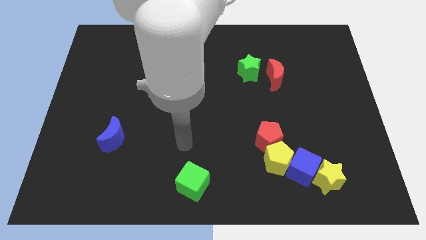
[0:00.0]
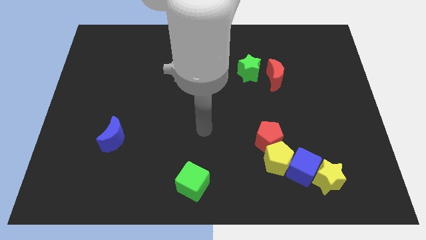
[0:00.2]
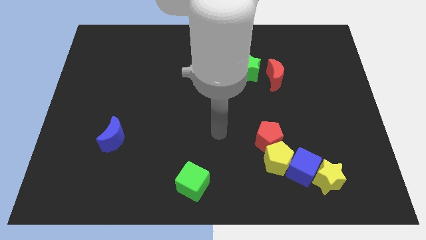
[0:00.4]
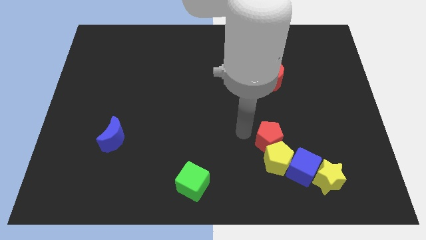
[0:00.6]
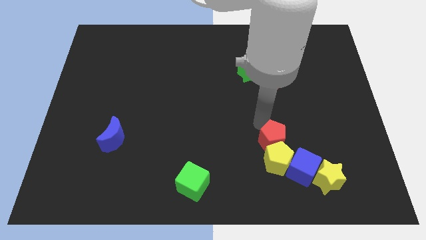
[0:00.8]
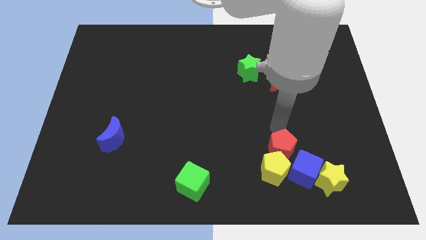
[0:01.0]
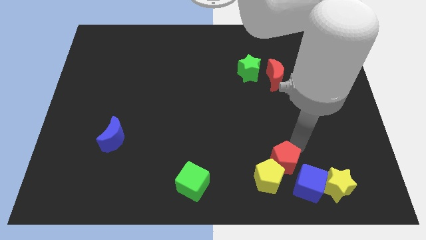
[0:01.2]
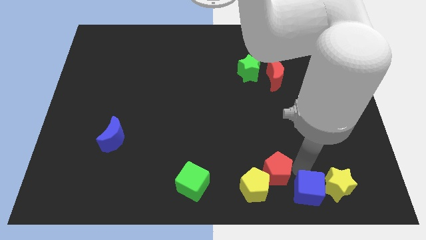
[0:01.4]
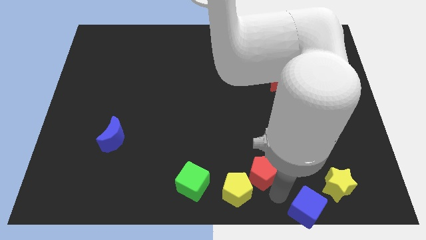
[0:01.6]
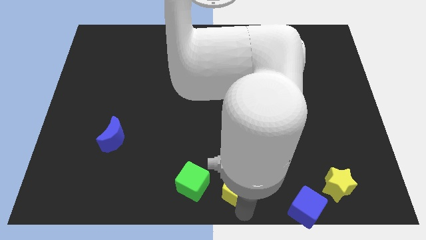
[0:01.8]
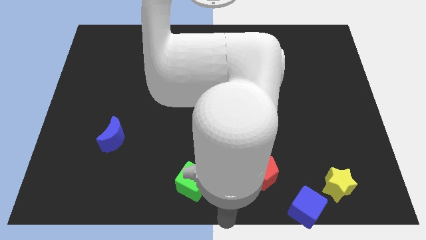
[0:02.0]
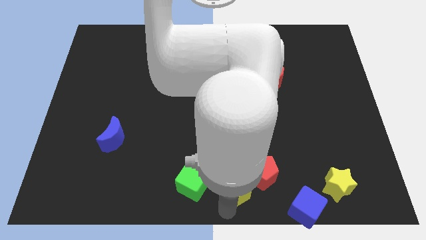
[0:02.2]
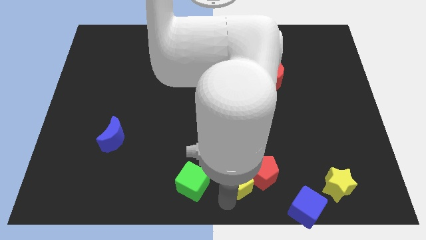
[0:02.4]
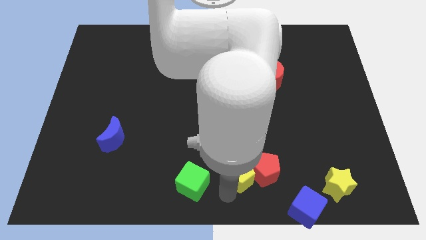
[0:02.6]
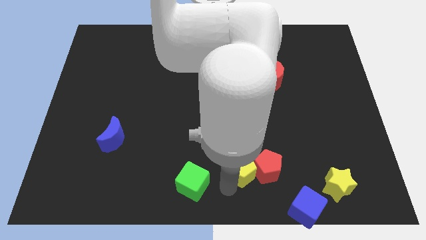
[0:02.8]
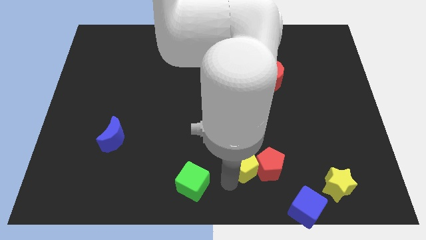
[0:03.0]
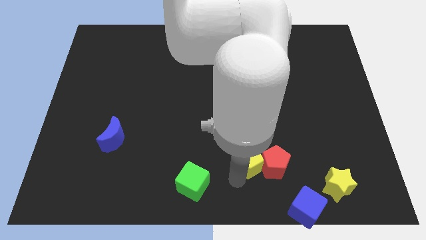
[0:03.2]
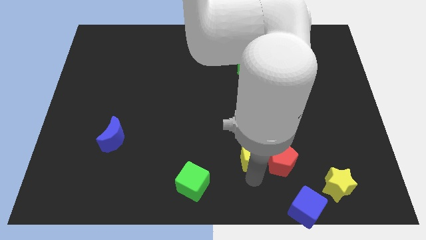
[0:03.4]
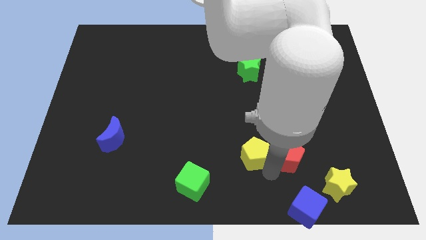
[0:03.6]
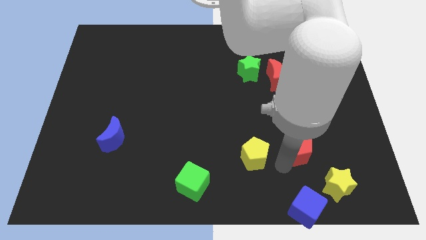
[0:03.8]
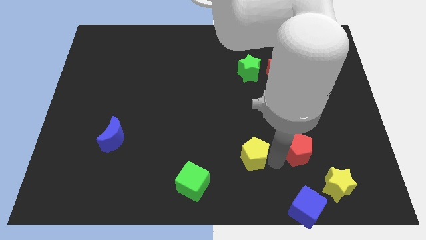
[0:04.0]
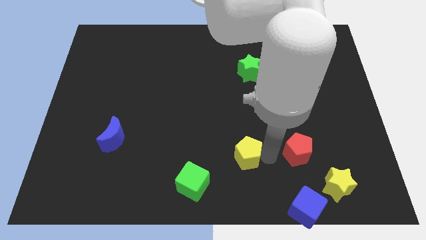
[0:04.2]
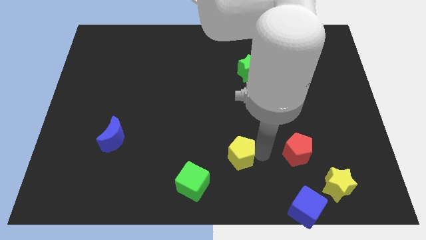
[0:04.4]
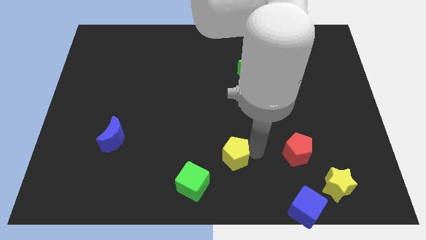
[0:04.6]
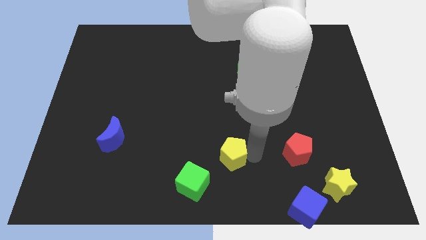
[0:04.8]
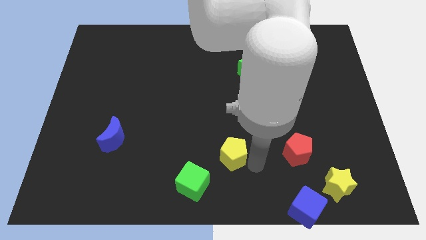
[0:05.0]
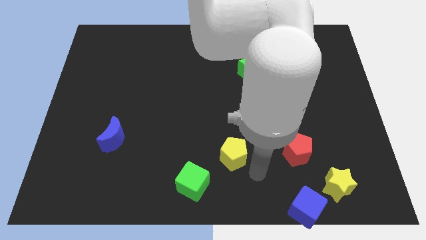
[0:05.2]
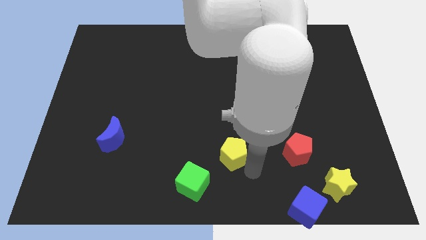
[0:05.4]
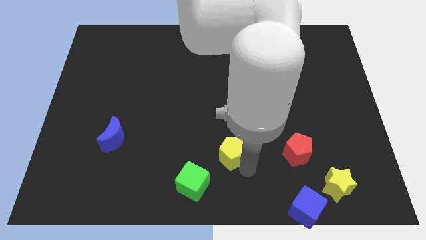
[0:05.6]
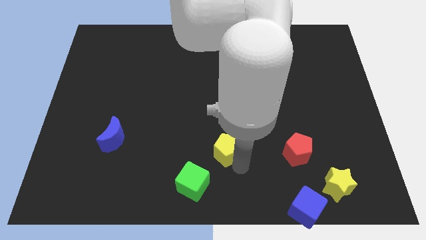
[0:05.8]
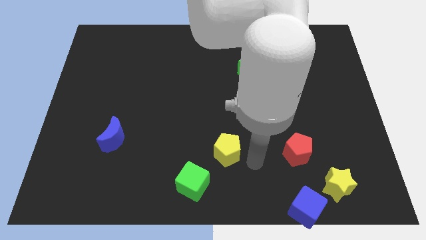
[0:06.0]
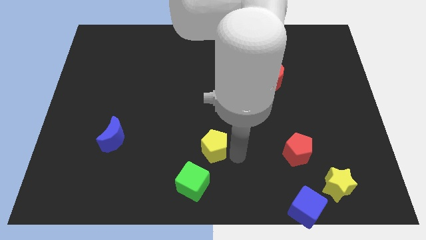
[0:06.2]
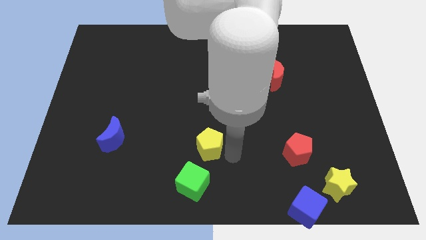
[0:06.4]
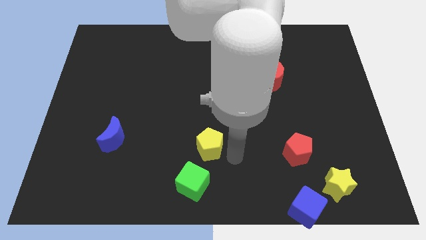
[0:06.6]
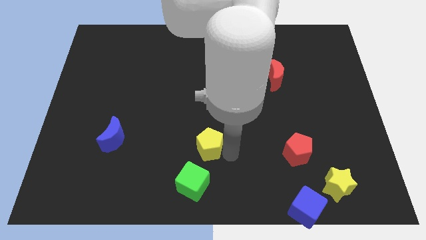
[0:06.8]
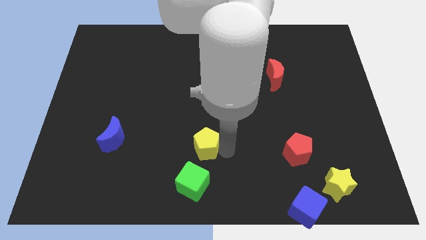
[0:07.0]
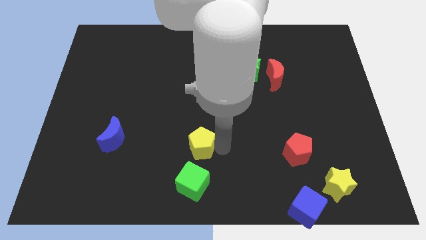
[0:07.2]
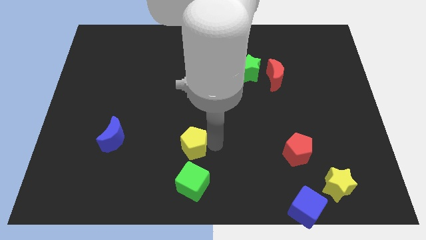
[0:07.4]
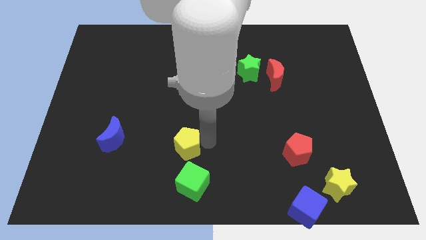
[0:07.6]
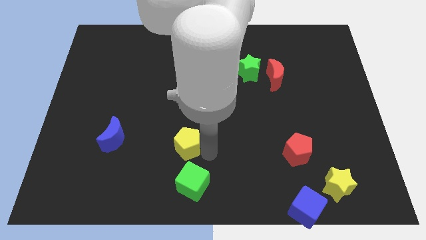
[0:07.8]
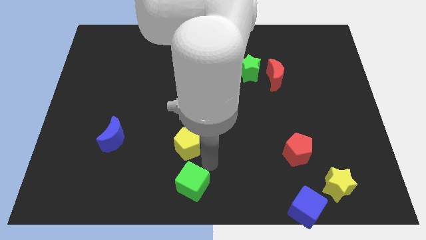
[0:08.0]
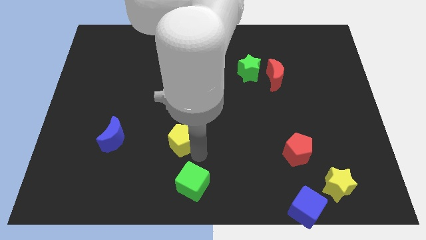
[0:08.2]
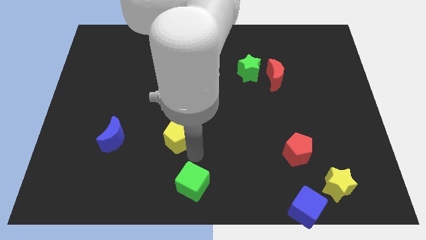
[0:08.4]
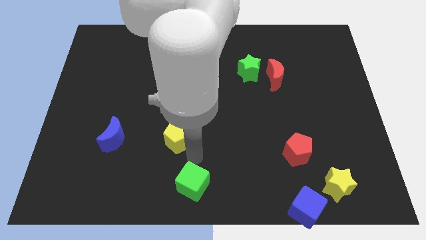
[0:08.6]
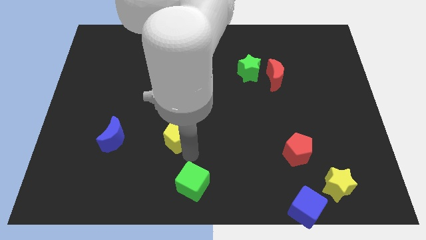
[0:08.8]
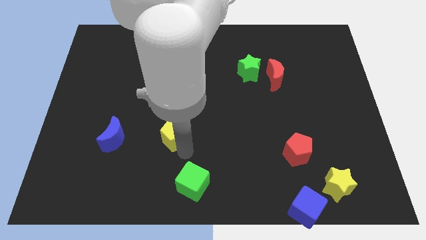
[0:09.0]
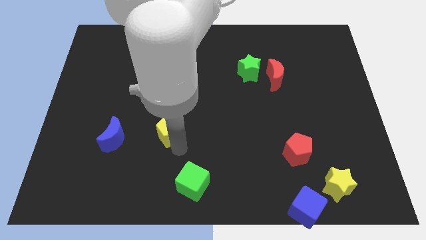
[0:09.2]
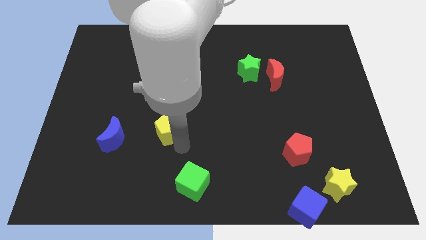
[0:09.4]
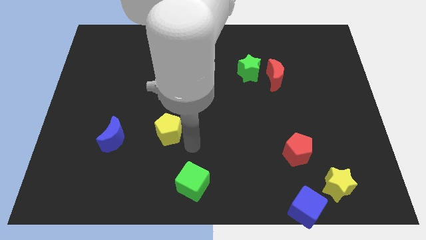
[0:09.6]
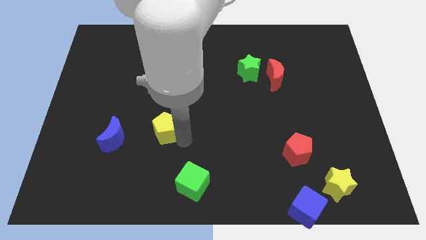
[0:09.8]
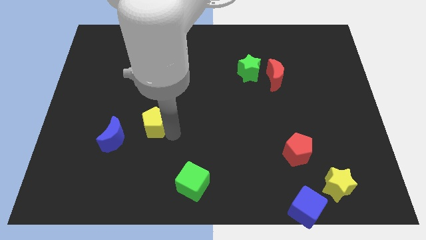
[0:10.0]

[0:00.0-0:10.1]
put the yellow pentagon to the top right of the blue moon

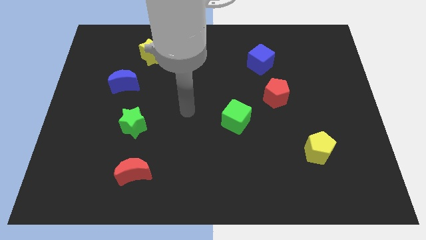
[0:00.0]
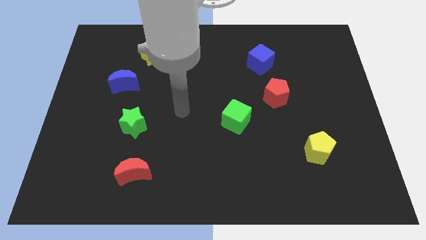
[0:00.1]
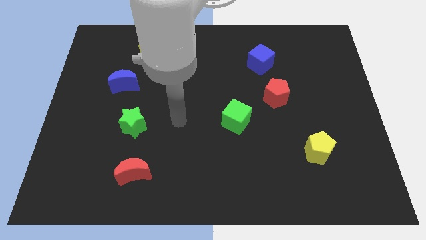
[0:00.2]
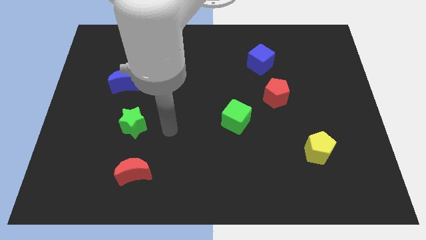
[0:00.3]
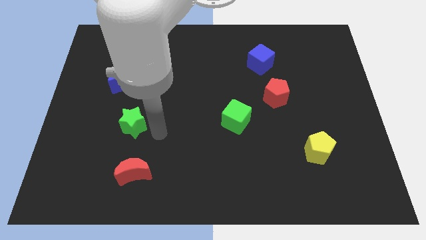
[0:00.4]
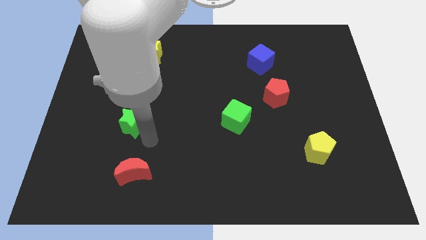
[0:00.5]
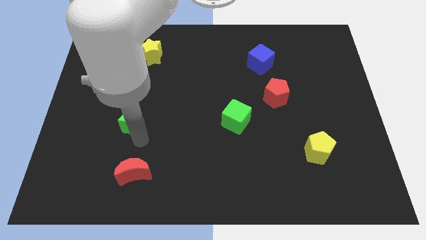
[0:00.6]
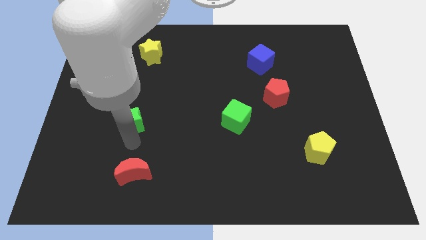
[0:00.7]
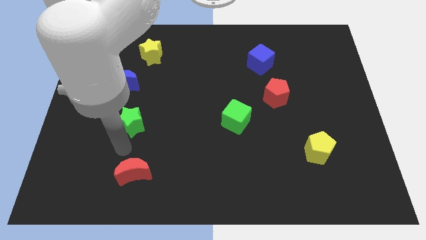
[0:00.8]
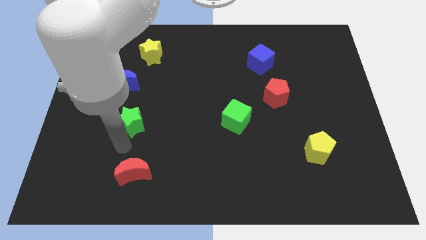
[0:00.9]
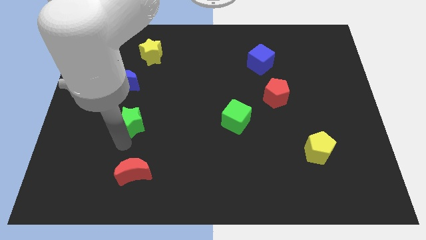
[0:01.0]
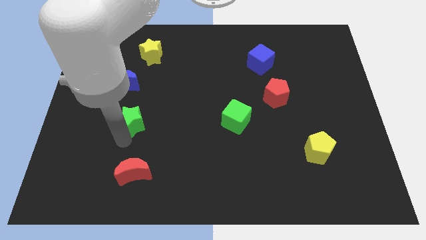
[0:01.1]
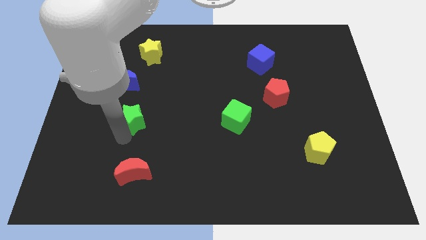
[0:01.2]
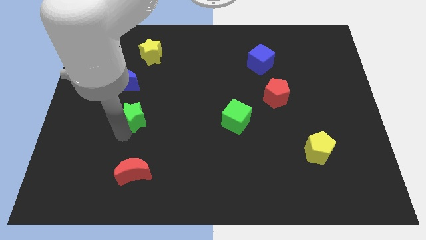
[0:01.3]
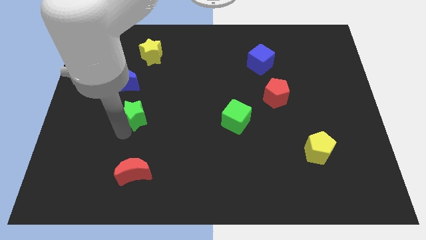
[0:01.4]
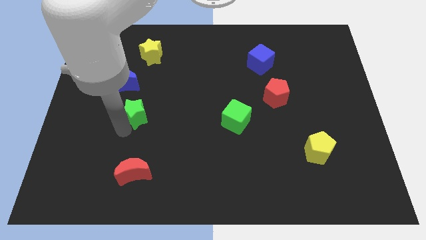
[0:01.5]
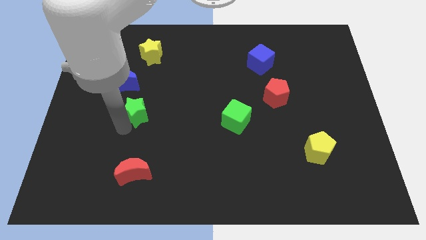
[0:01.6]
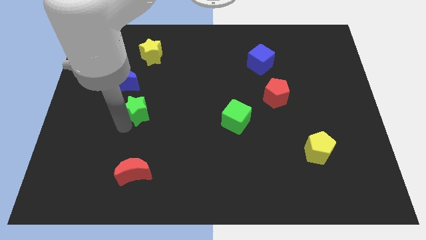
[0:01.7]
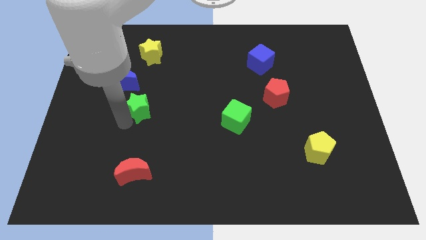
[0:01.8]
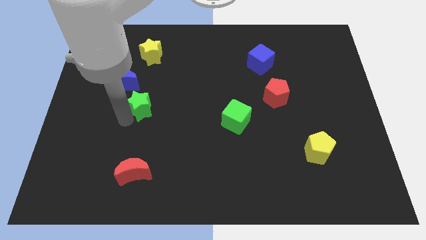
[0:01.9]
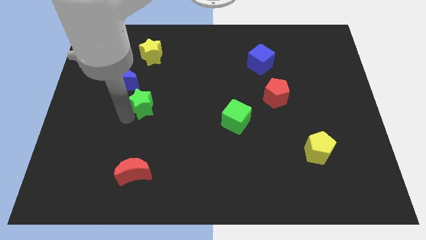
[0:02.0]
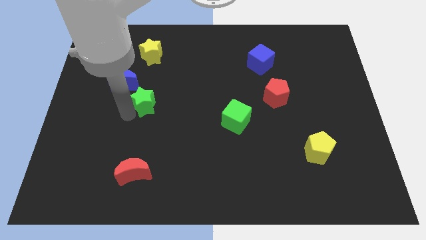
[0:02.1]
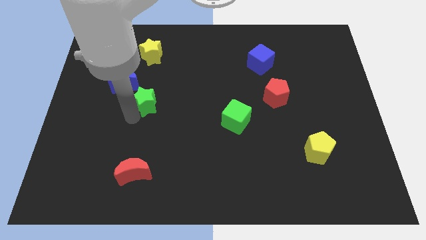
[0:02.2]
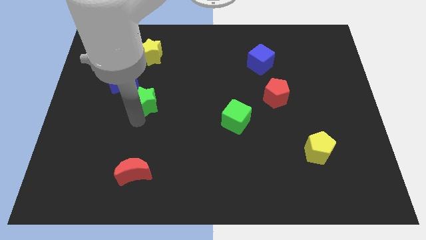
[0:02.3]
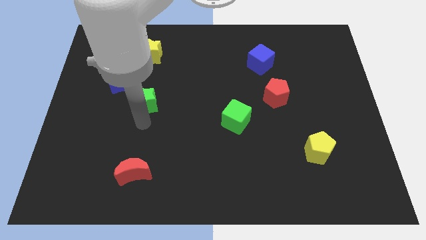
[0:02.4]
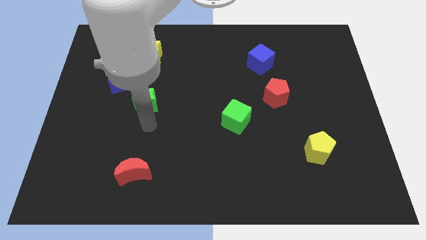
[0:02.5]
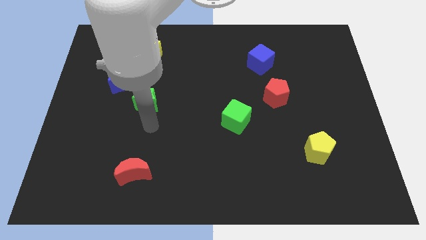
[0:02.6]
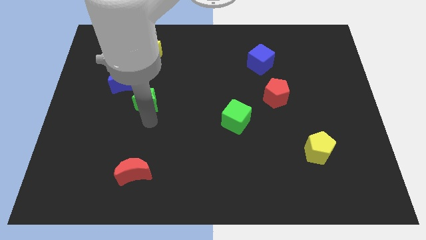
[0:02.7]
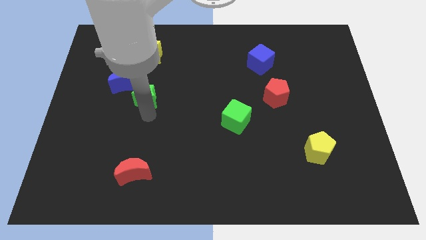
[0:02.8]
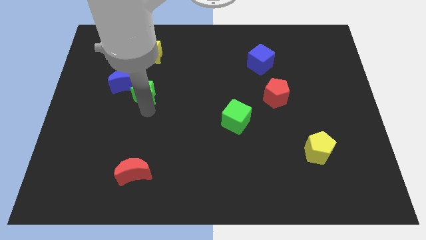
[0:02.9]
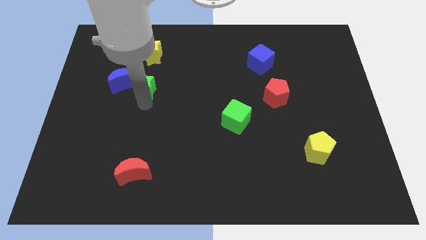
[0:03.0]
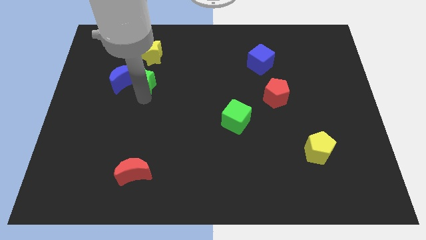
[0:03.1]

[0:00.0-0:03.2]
put the green star diagonally up and to the right of the blue moon
